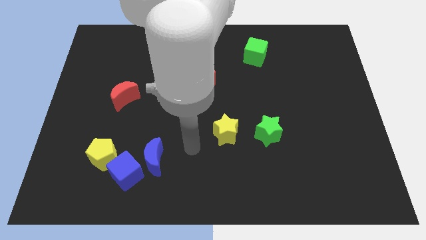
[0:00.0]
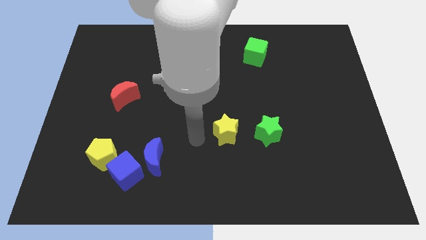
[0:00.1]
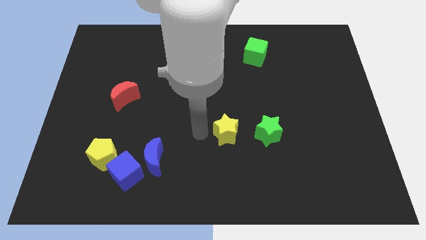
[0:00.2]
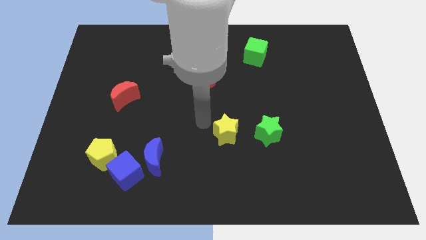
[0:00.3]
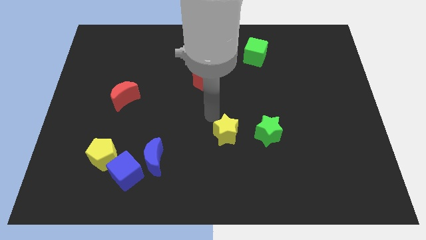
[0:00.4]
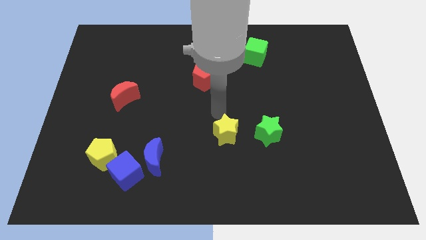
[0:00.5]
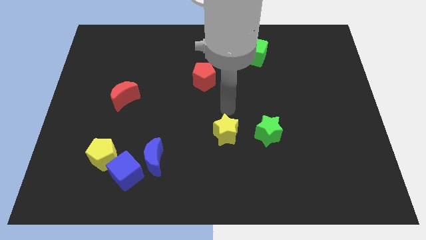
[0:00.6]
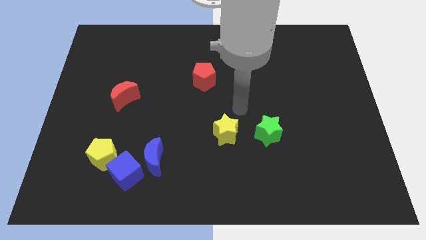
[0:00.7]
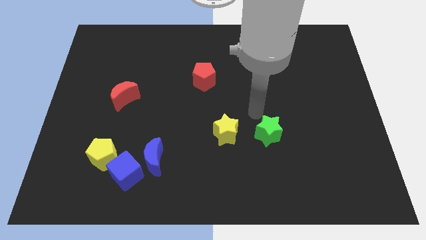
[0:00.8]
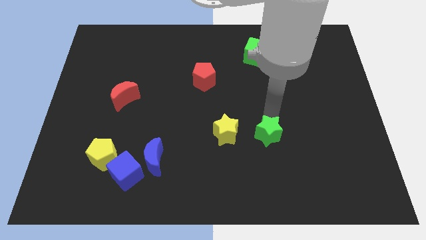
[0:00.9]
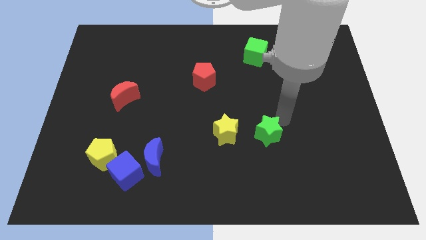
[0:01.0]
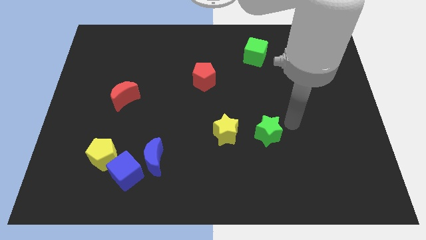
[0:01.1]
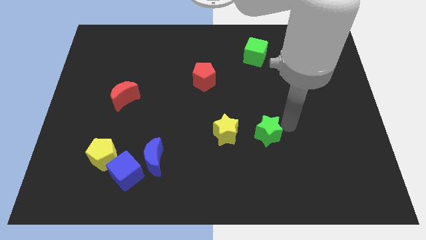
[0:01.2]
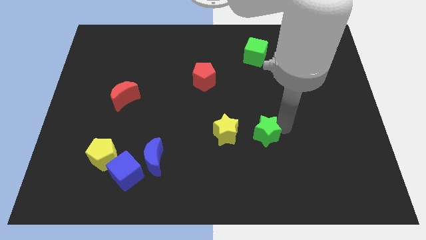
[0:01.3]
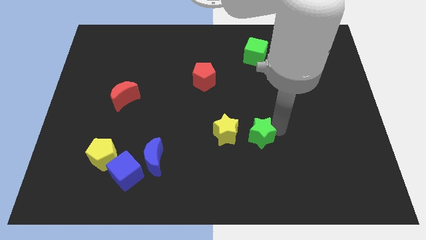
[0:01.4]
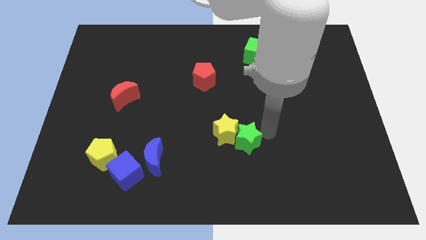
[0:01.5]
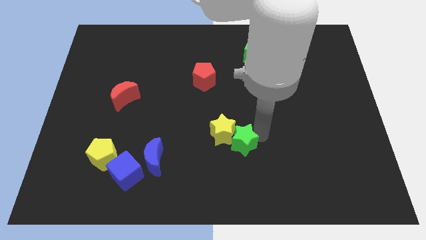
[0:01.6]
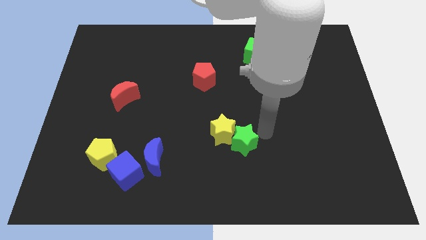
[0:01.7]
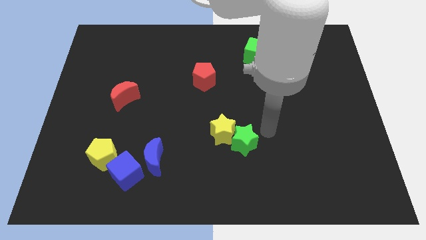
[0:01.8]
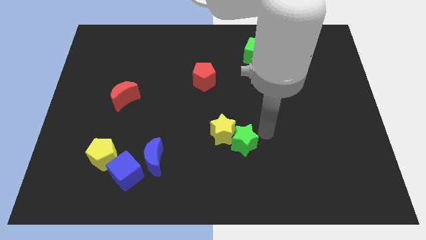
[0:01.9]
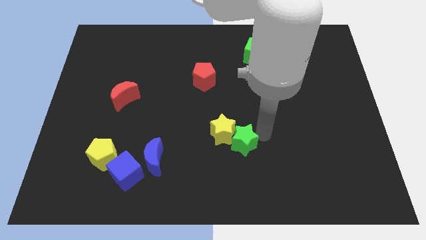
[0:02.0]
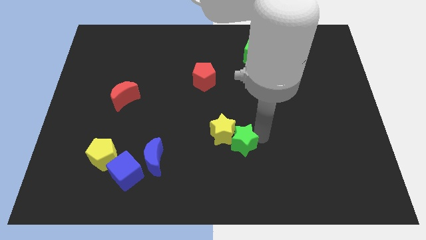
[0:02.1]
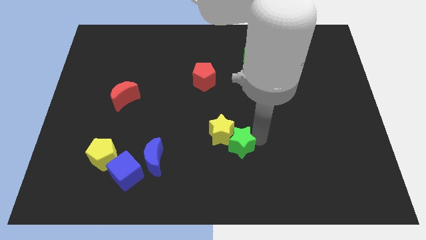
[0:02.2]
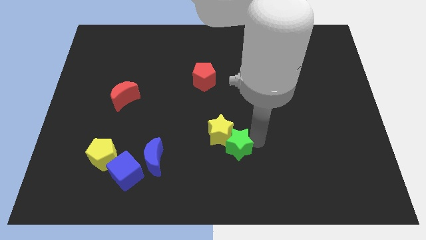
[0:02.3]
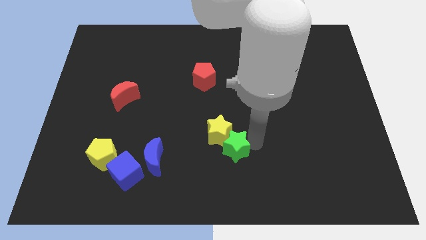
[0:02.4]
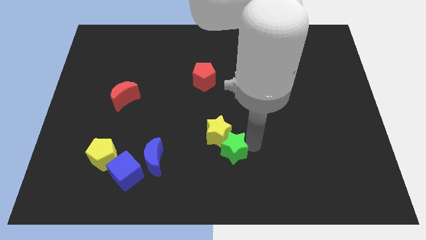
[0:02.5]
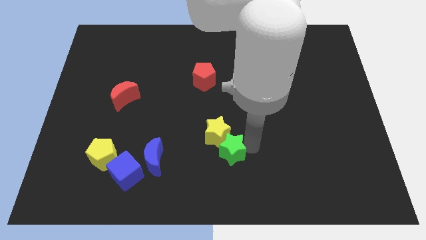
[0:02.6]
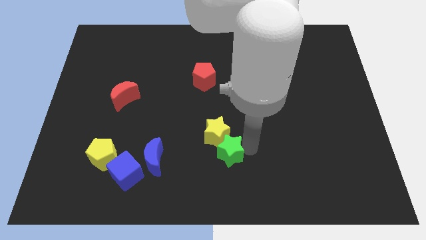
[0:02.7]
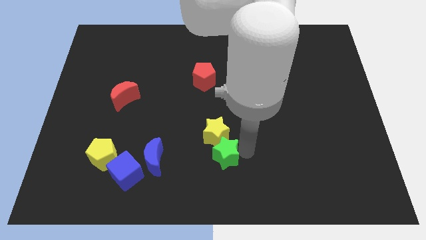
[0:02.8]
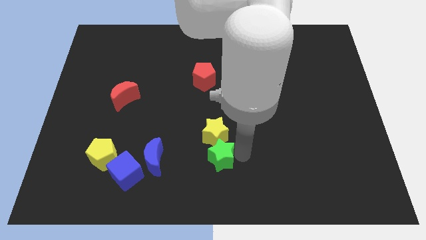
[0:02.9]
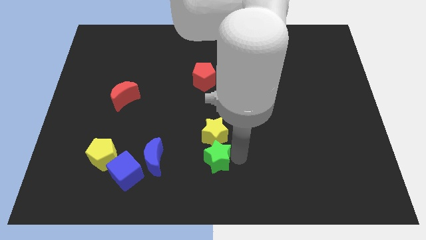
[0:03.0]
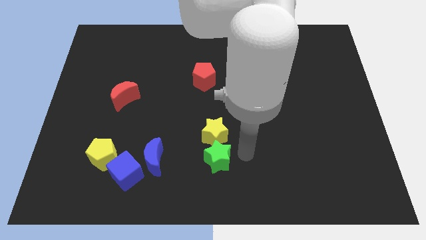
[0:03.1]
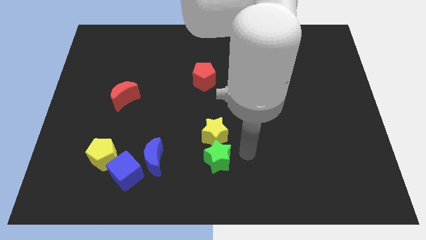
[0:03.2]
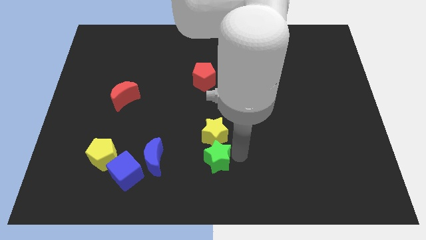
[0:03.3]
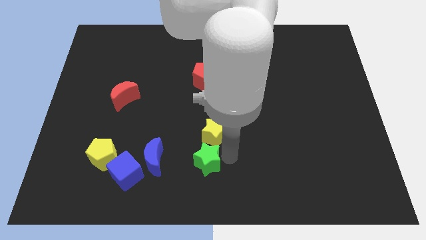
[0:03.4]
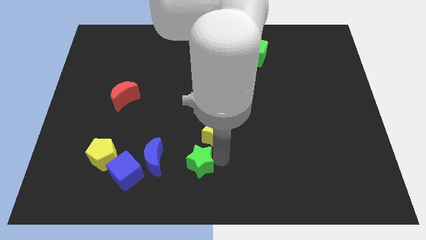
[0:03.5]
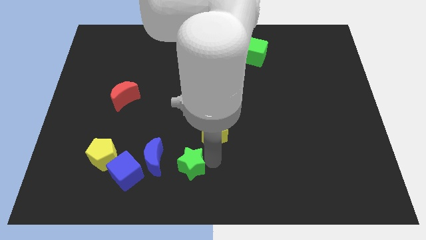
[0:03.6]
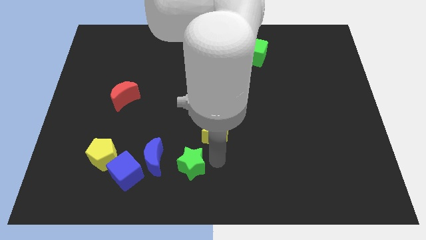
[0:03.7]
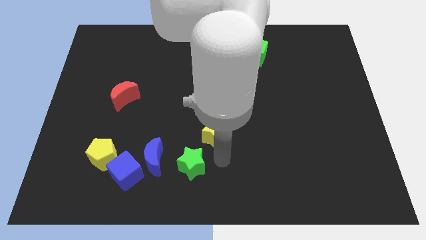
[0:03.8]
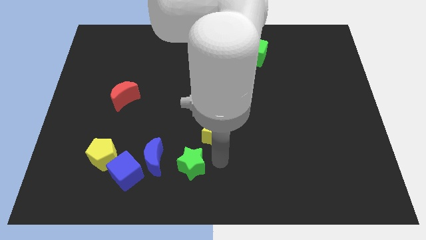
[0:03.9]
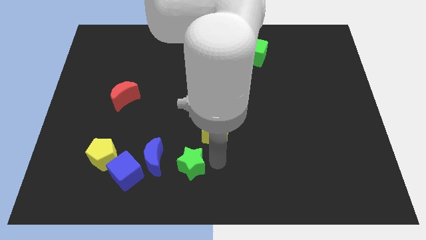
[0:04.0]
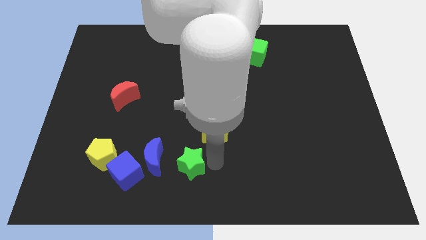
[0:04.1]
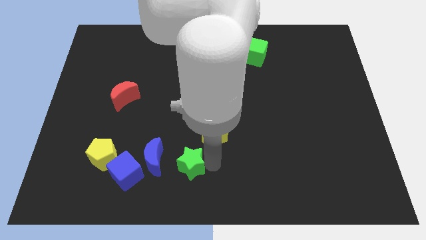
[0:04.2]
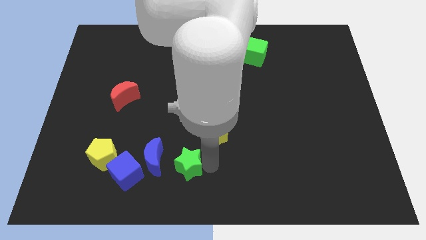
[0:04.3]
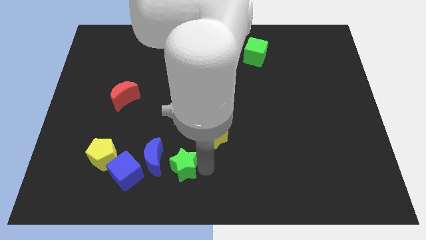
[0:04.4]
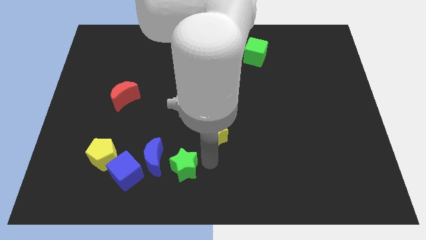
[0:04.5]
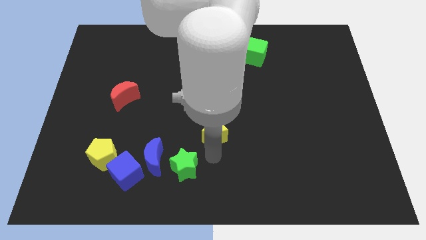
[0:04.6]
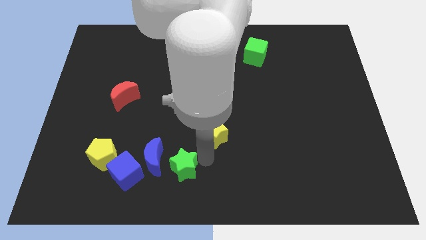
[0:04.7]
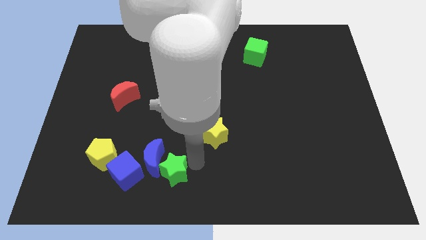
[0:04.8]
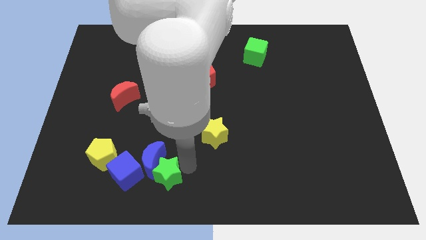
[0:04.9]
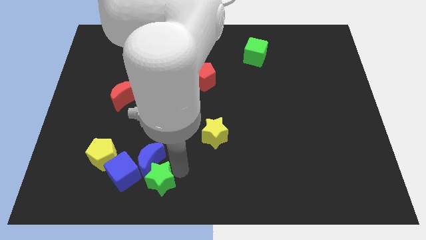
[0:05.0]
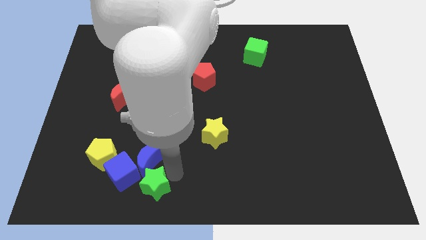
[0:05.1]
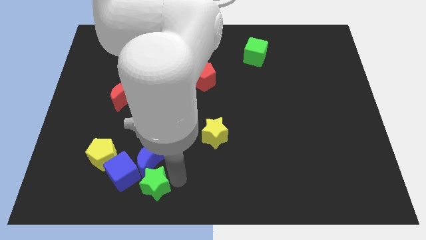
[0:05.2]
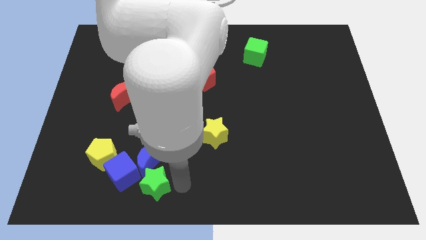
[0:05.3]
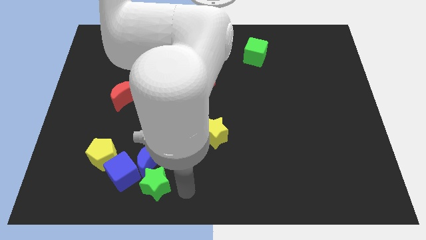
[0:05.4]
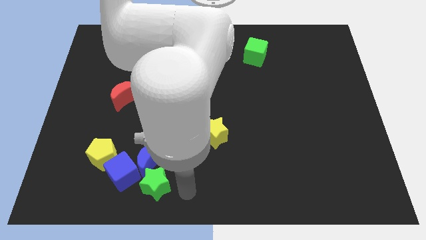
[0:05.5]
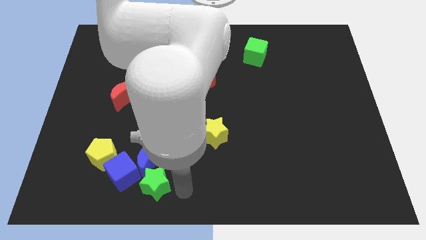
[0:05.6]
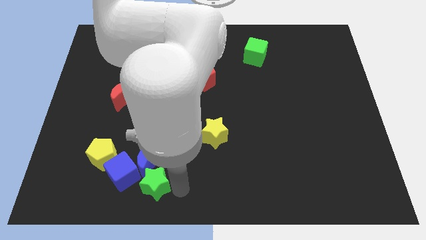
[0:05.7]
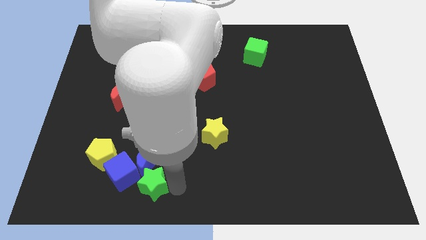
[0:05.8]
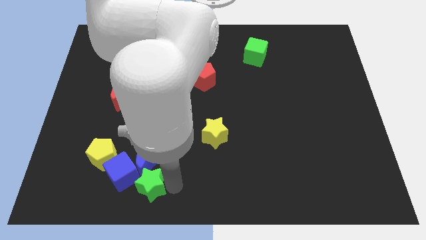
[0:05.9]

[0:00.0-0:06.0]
push the green star to the bottom right side of the yellow pentagon

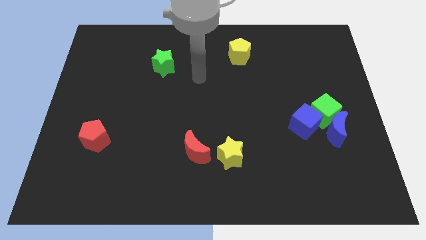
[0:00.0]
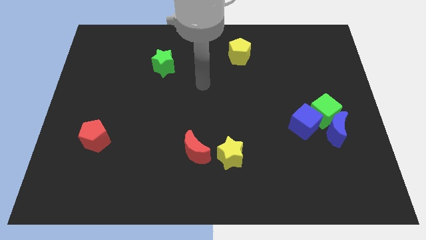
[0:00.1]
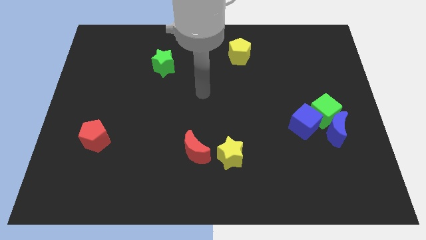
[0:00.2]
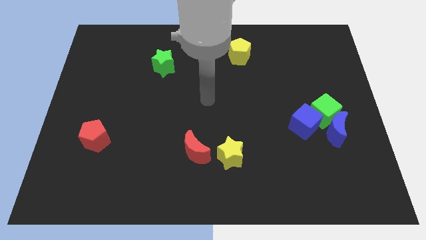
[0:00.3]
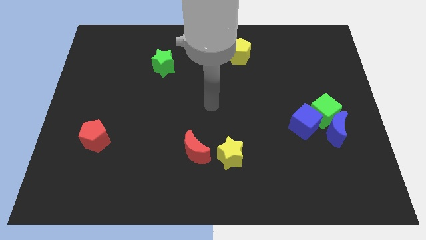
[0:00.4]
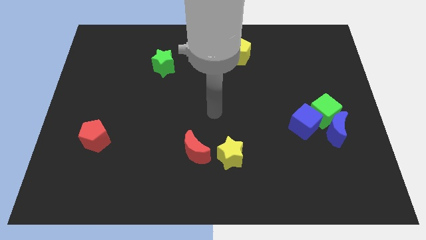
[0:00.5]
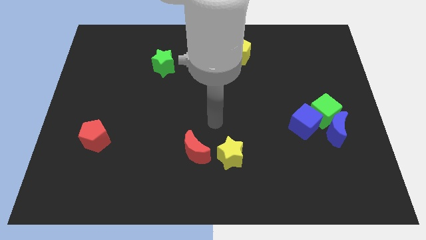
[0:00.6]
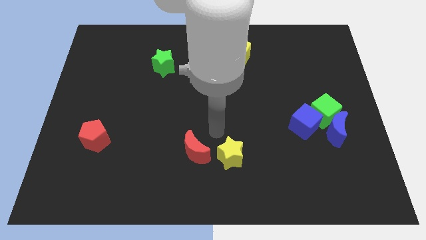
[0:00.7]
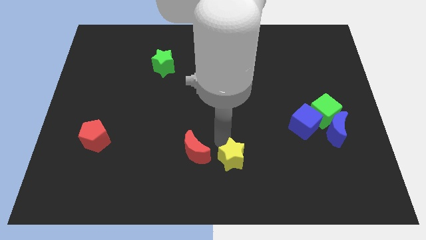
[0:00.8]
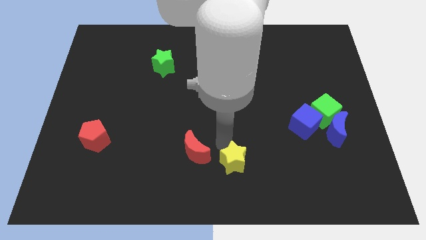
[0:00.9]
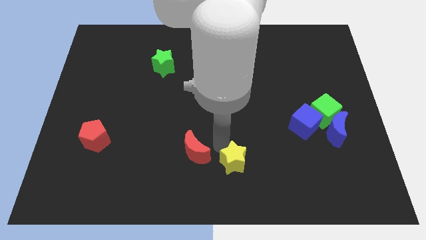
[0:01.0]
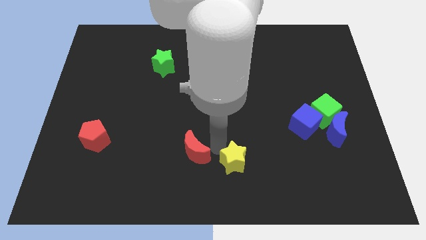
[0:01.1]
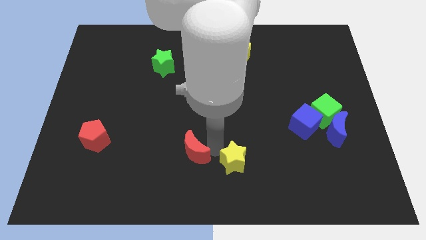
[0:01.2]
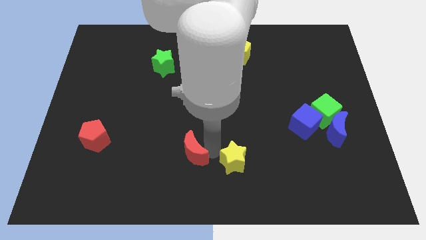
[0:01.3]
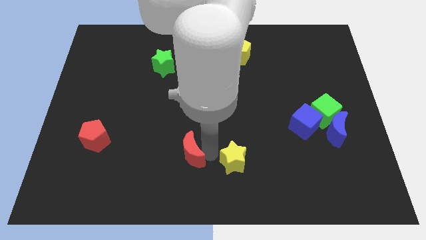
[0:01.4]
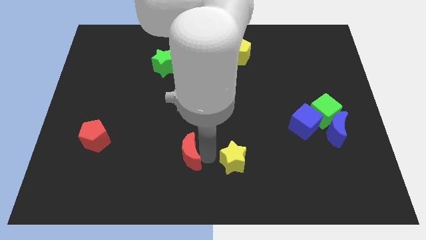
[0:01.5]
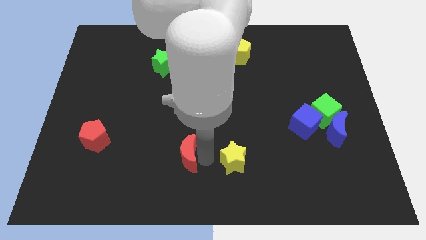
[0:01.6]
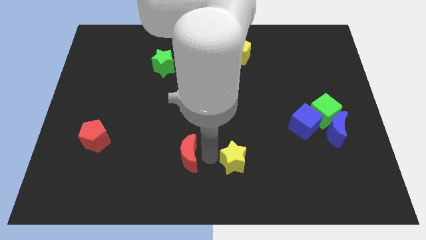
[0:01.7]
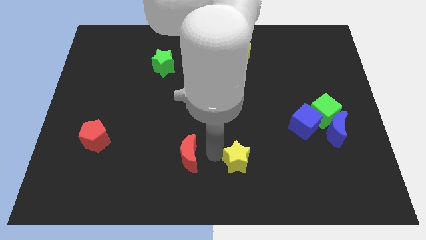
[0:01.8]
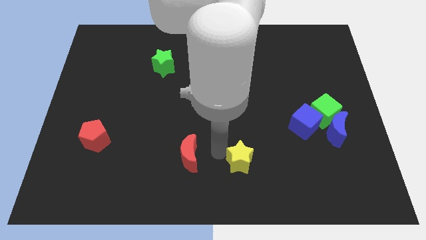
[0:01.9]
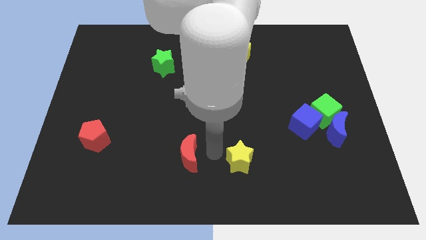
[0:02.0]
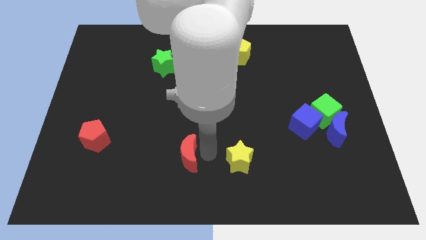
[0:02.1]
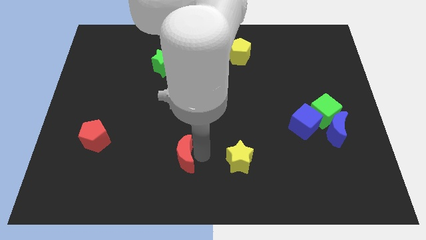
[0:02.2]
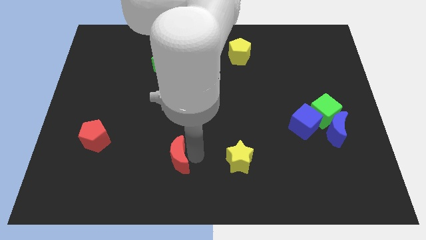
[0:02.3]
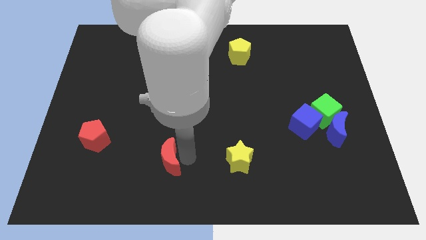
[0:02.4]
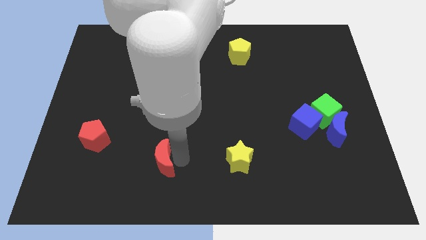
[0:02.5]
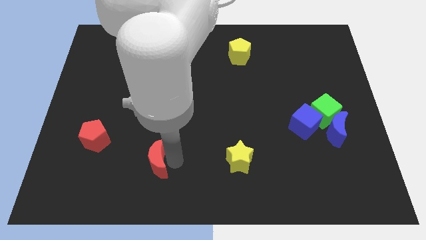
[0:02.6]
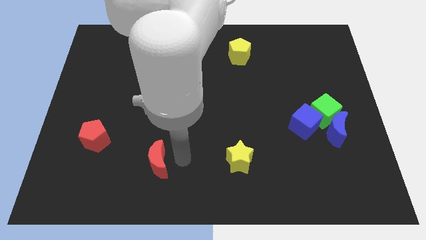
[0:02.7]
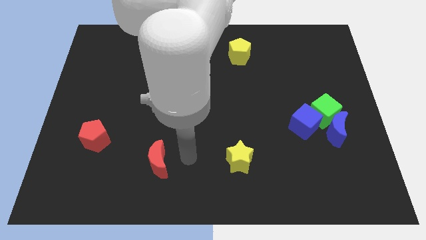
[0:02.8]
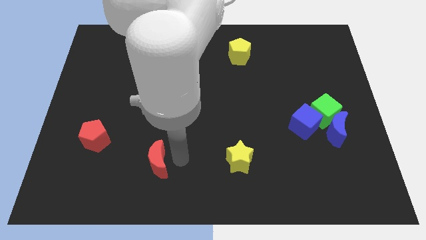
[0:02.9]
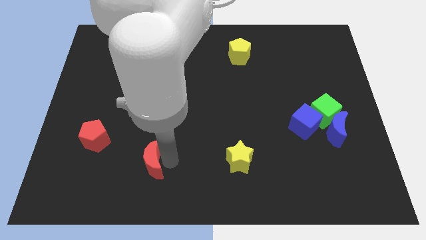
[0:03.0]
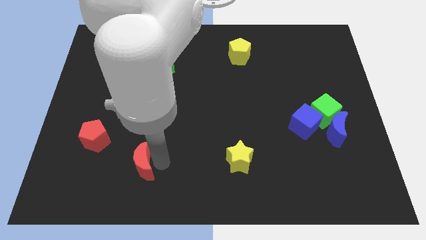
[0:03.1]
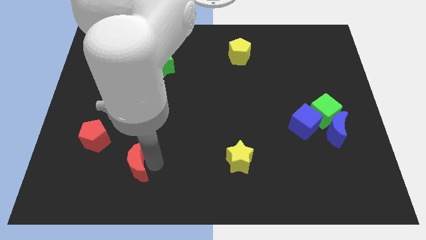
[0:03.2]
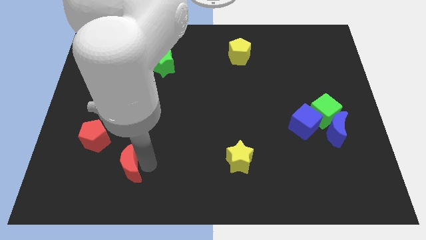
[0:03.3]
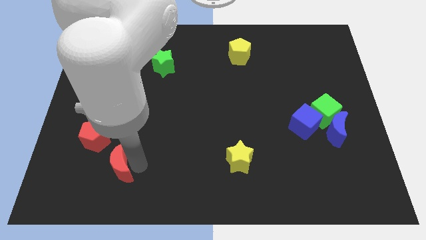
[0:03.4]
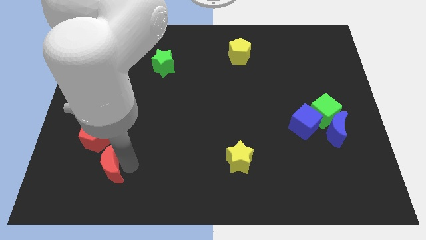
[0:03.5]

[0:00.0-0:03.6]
push the red moon below the red pentagon
